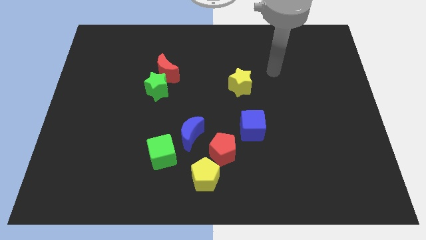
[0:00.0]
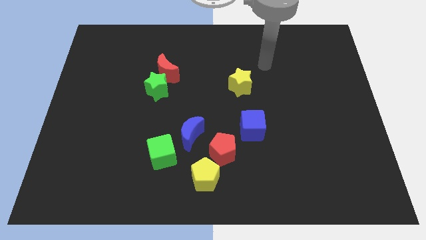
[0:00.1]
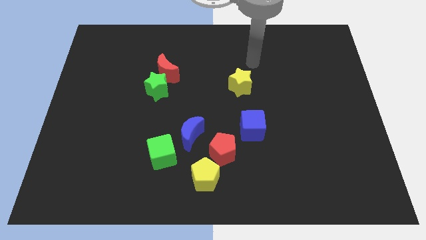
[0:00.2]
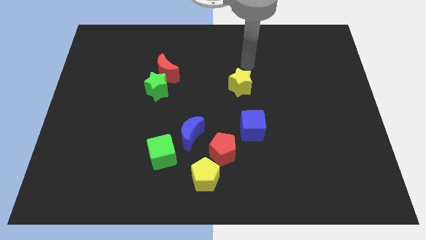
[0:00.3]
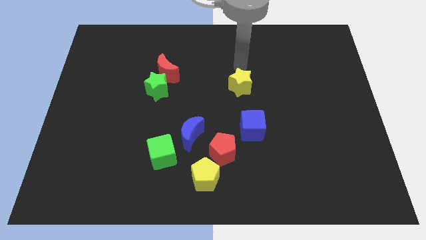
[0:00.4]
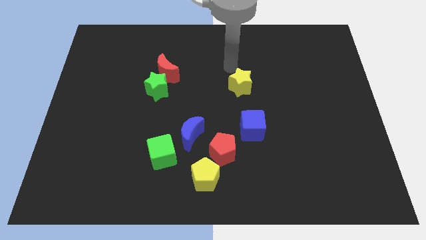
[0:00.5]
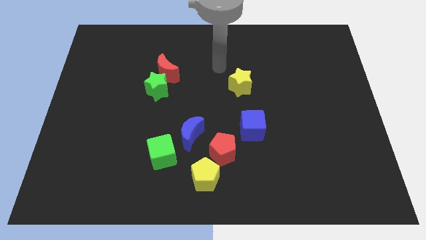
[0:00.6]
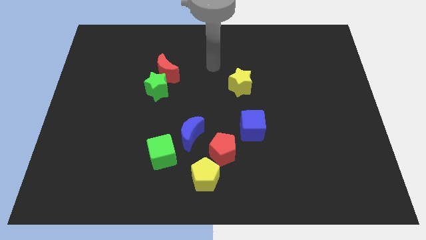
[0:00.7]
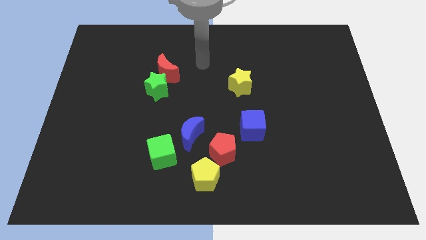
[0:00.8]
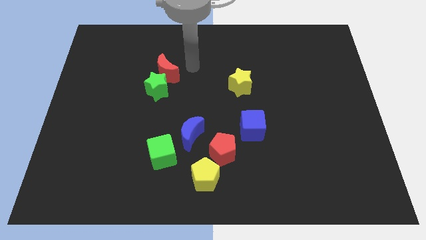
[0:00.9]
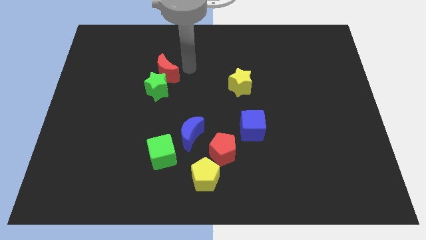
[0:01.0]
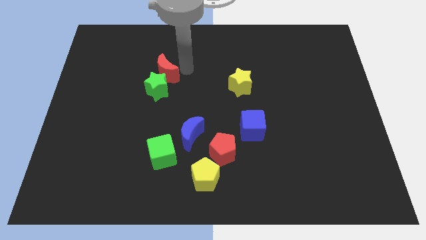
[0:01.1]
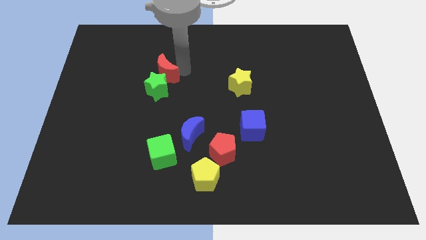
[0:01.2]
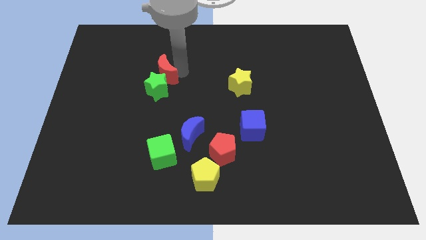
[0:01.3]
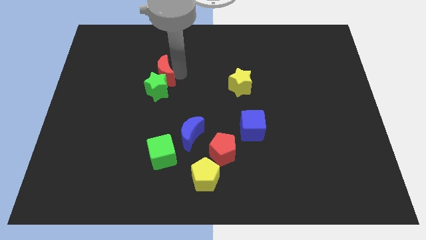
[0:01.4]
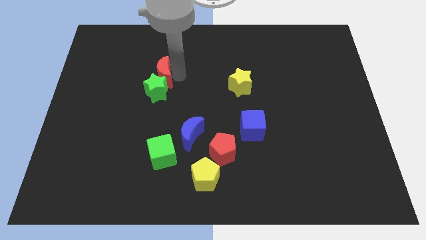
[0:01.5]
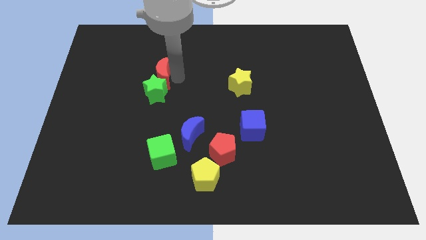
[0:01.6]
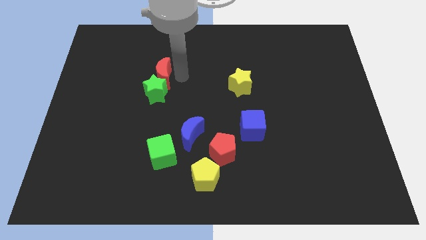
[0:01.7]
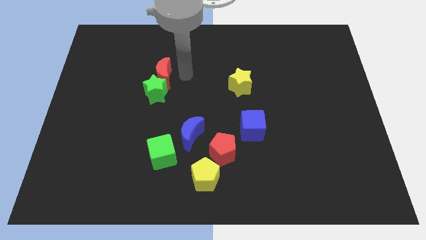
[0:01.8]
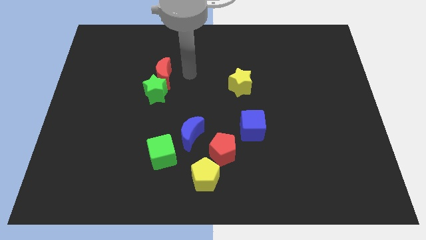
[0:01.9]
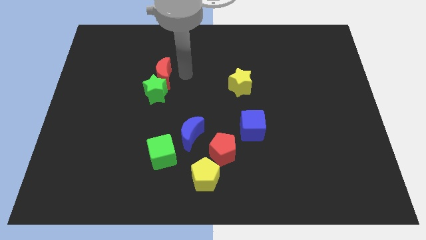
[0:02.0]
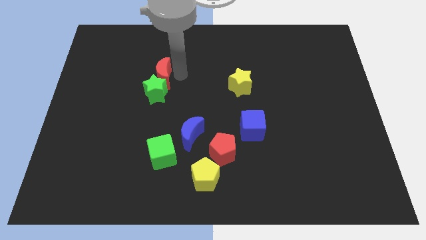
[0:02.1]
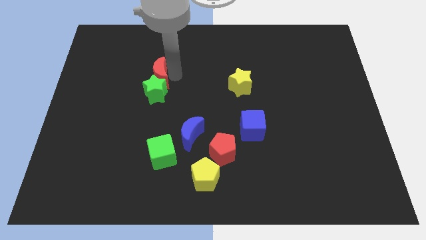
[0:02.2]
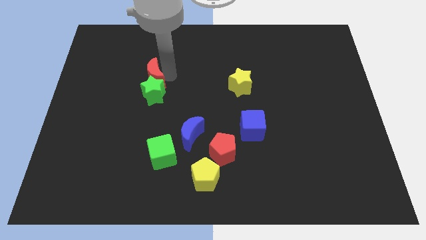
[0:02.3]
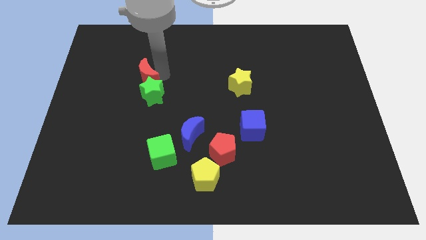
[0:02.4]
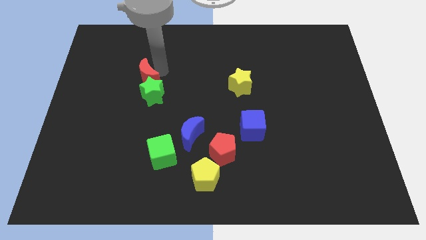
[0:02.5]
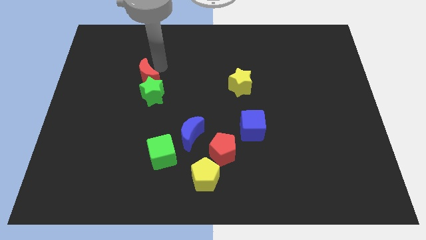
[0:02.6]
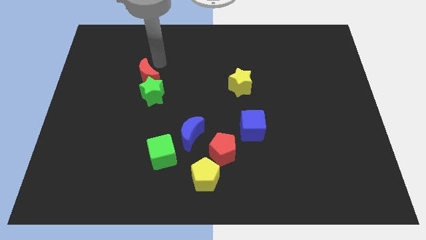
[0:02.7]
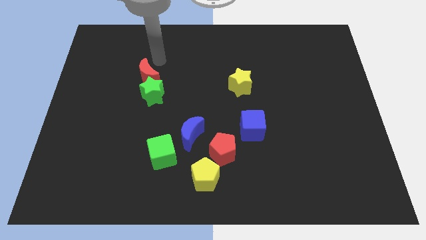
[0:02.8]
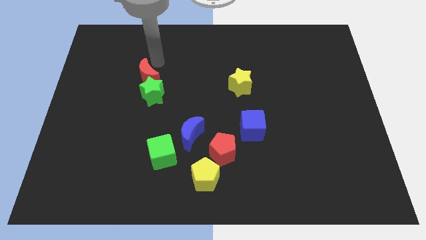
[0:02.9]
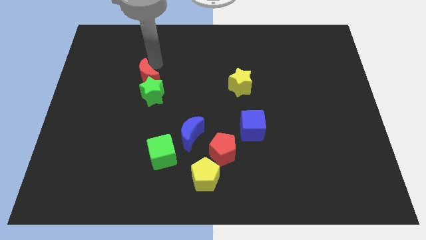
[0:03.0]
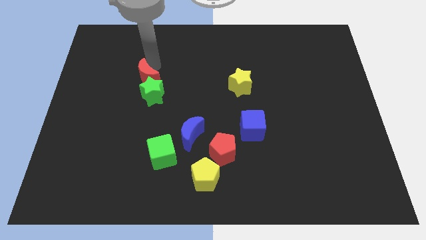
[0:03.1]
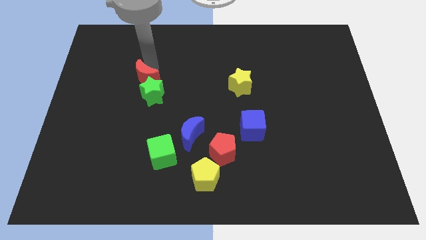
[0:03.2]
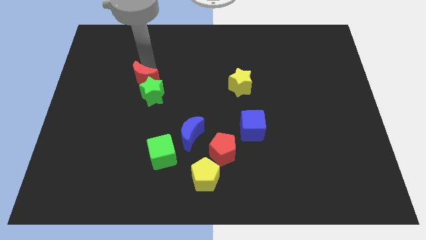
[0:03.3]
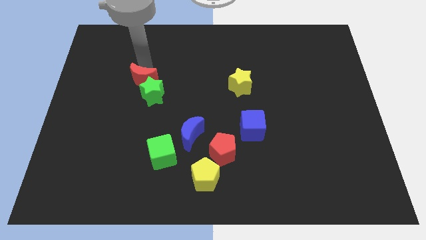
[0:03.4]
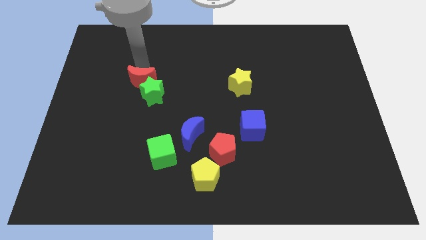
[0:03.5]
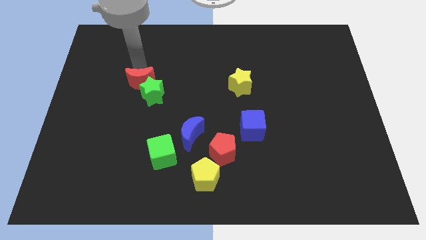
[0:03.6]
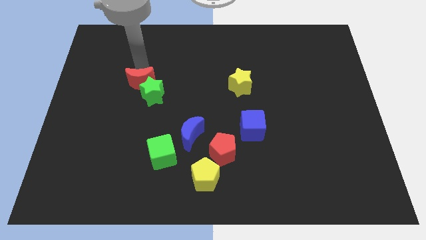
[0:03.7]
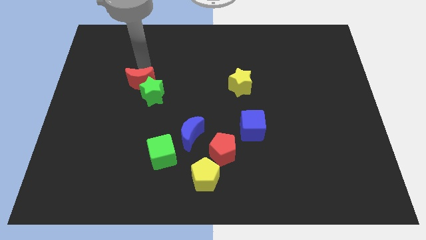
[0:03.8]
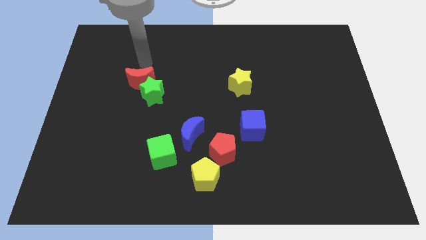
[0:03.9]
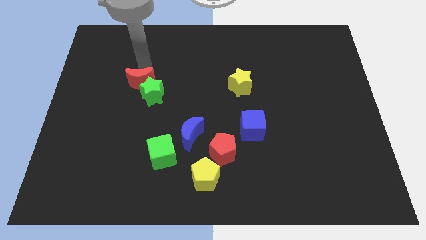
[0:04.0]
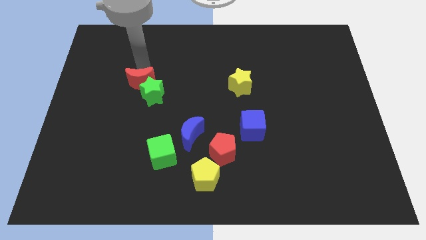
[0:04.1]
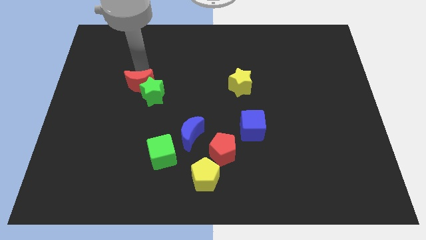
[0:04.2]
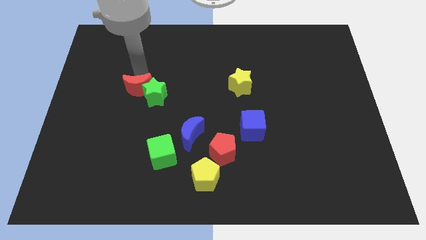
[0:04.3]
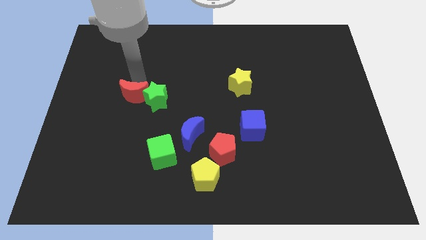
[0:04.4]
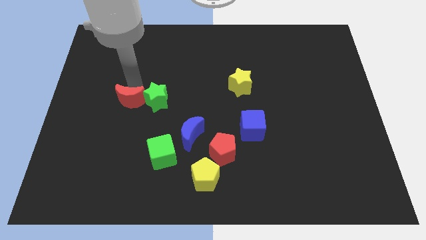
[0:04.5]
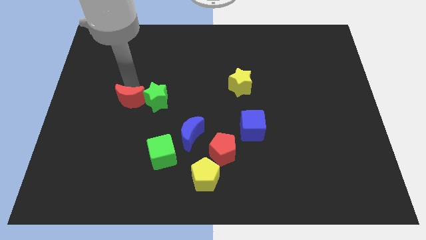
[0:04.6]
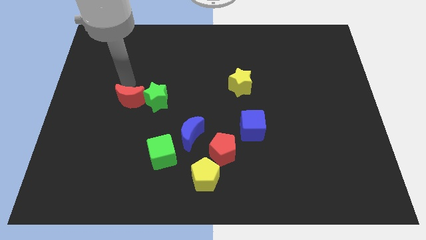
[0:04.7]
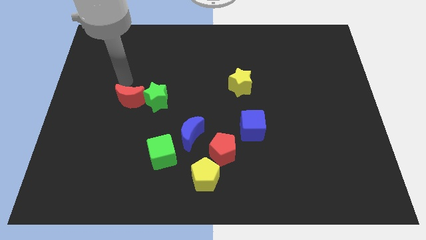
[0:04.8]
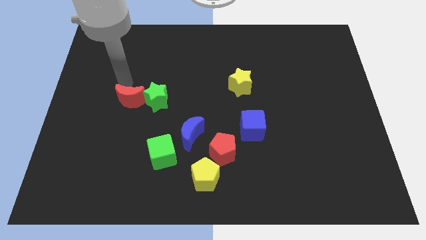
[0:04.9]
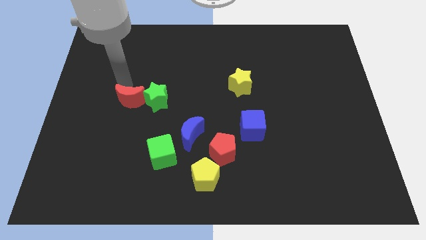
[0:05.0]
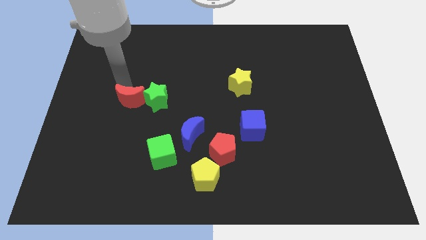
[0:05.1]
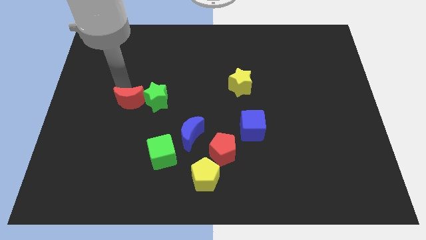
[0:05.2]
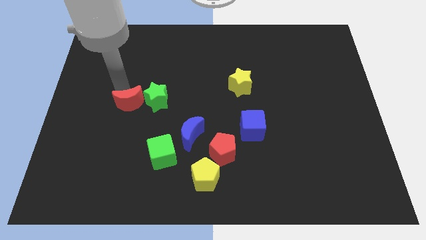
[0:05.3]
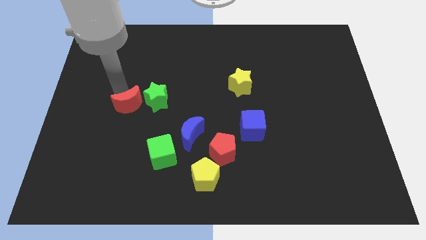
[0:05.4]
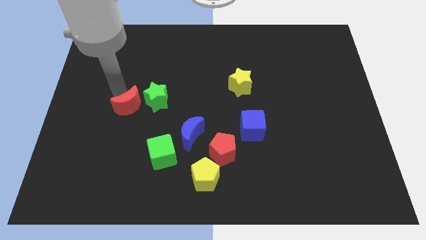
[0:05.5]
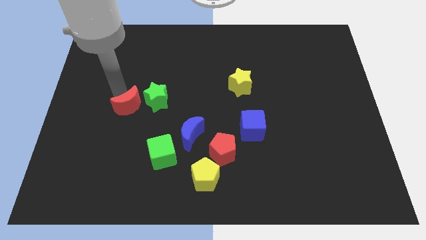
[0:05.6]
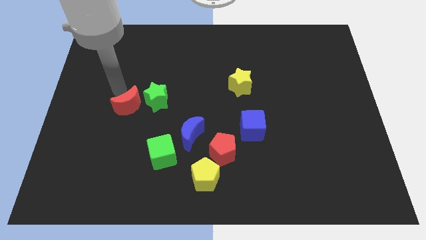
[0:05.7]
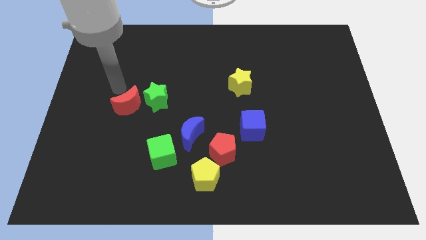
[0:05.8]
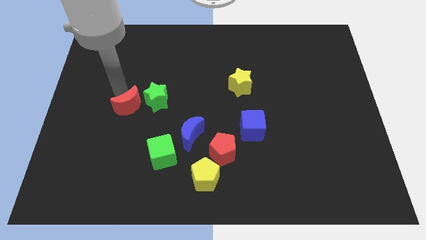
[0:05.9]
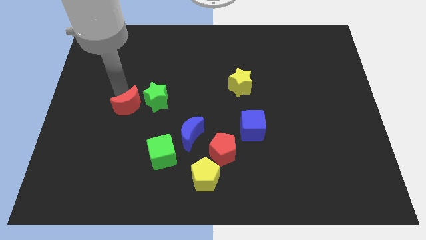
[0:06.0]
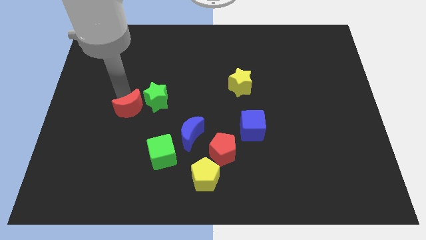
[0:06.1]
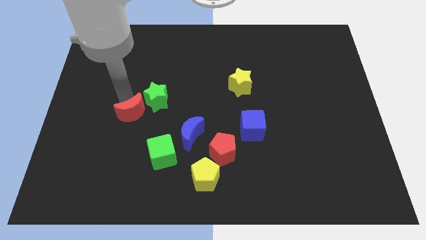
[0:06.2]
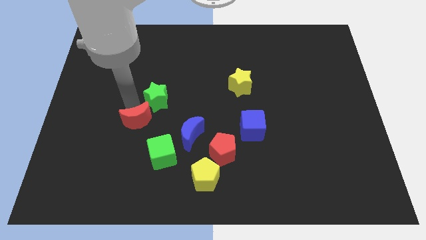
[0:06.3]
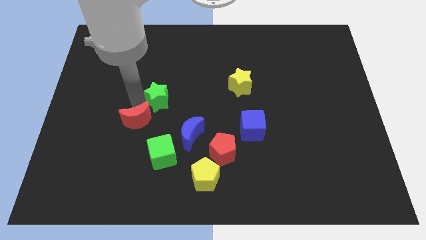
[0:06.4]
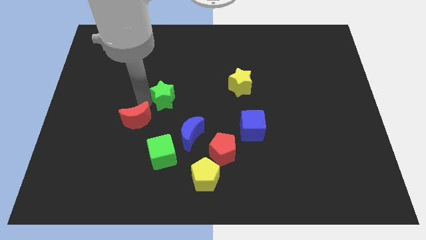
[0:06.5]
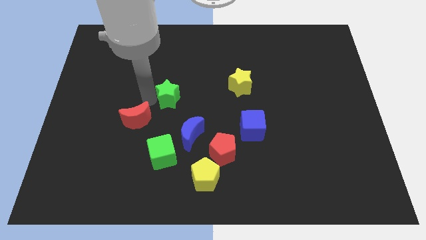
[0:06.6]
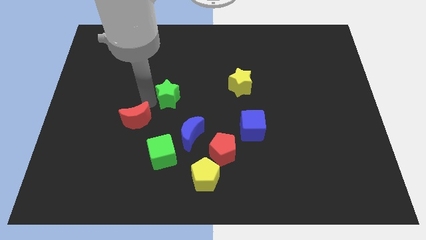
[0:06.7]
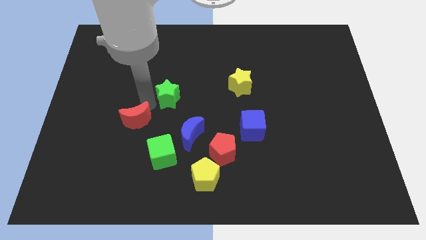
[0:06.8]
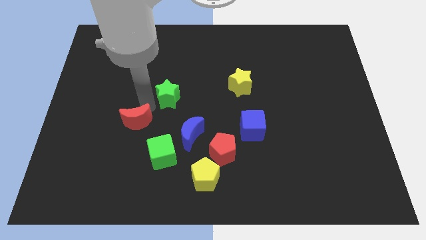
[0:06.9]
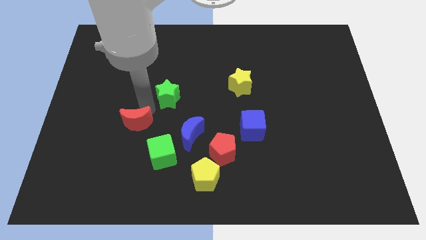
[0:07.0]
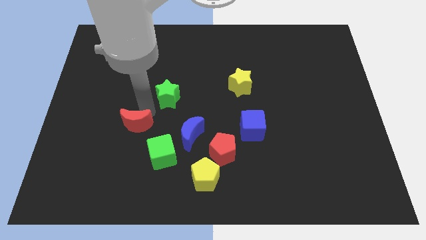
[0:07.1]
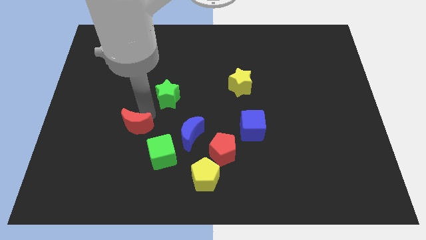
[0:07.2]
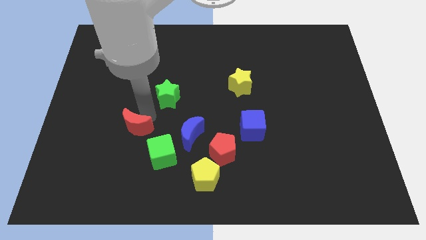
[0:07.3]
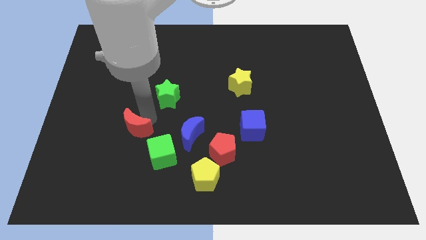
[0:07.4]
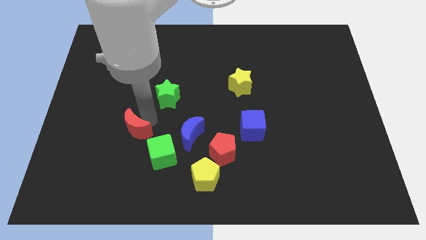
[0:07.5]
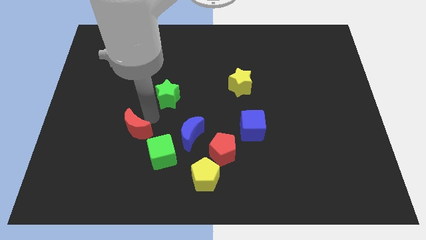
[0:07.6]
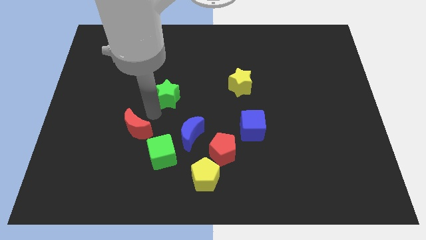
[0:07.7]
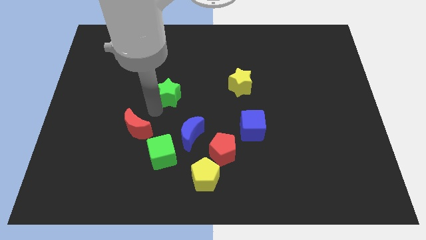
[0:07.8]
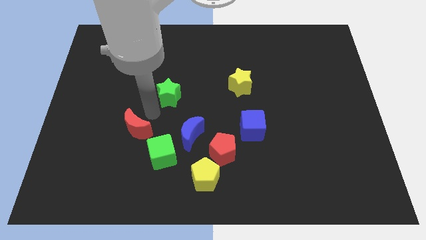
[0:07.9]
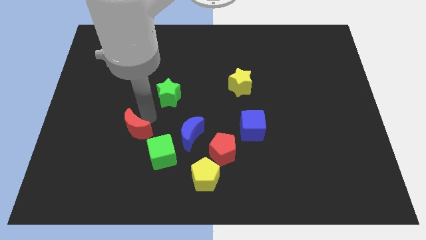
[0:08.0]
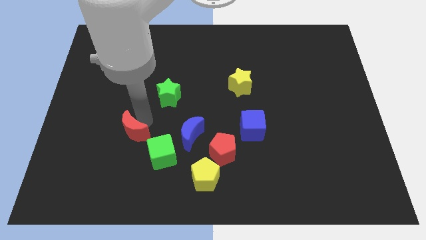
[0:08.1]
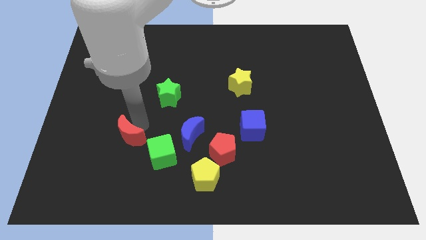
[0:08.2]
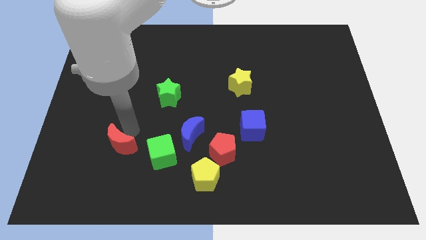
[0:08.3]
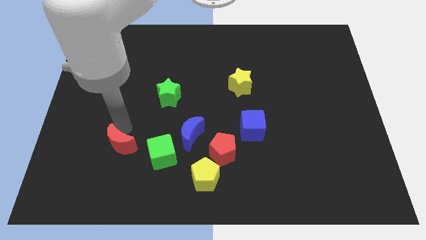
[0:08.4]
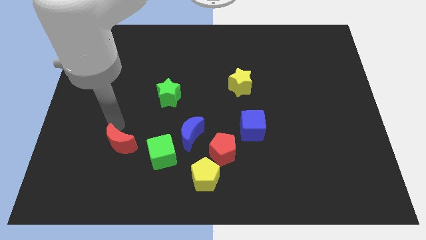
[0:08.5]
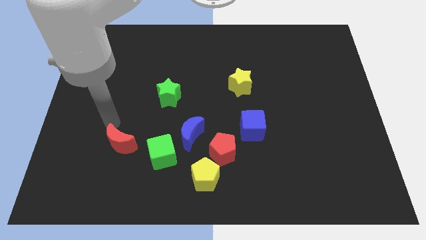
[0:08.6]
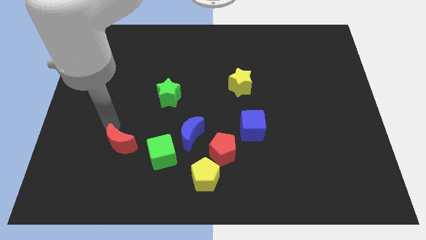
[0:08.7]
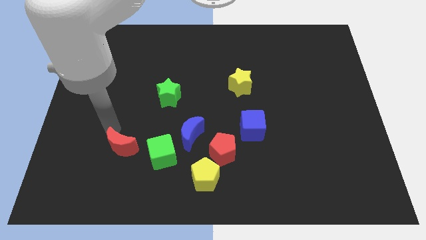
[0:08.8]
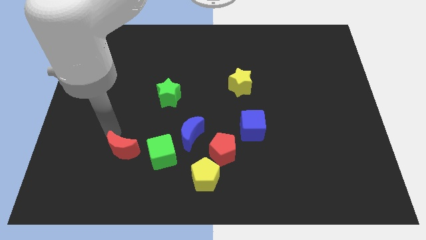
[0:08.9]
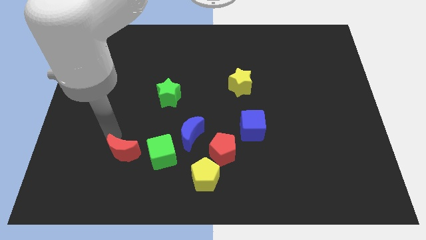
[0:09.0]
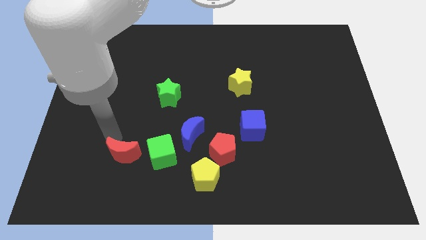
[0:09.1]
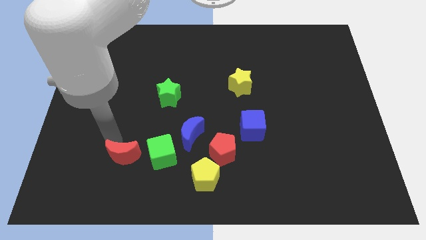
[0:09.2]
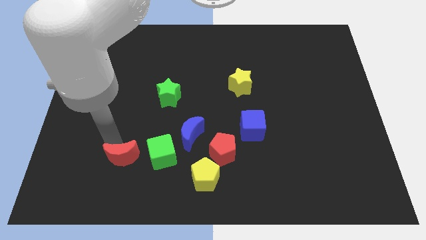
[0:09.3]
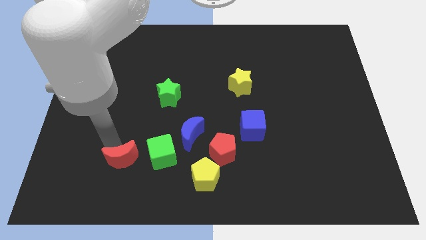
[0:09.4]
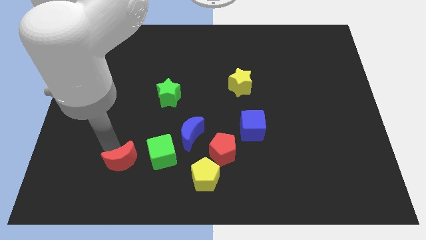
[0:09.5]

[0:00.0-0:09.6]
move the red moon to the bottom left side of the green cube
